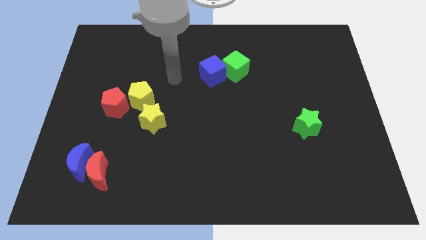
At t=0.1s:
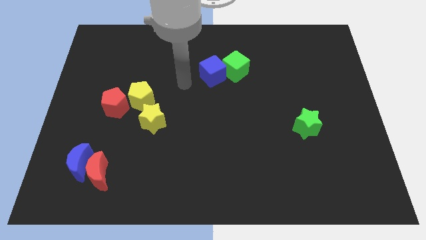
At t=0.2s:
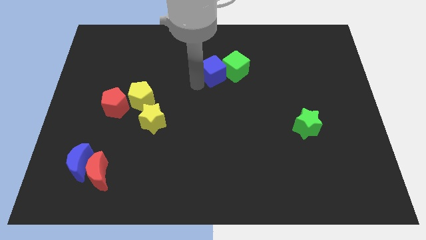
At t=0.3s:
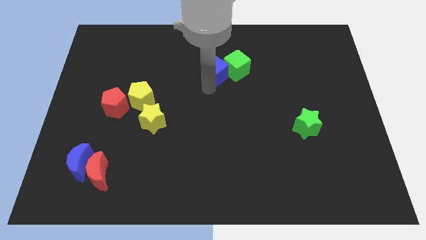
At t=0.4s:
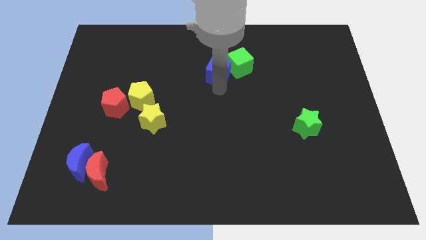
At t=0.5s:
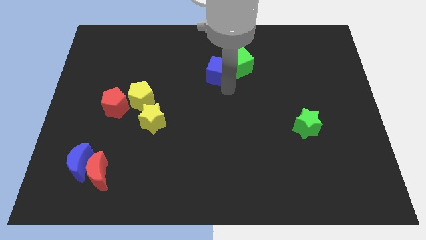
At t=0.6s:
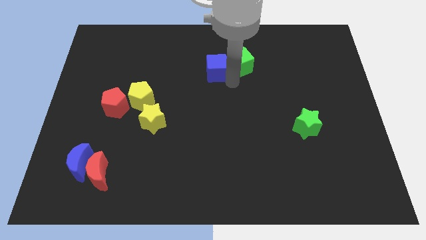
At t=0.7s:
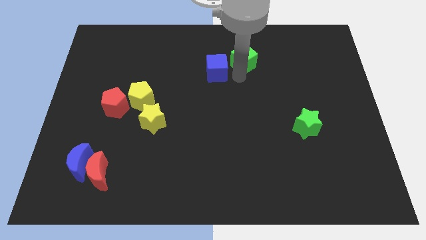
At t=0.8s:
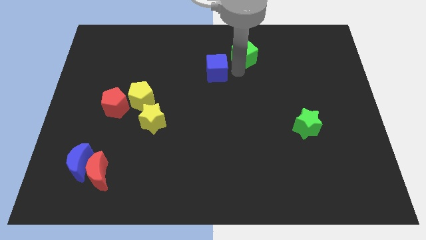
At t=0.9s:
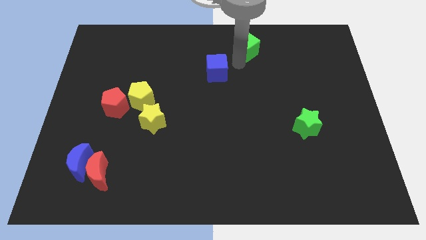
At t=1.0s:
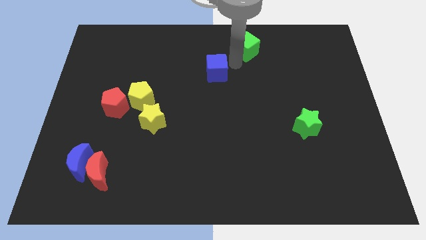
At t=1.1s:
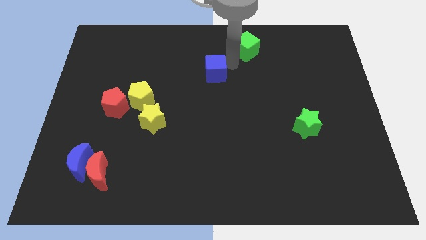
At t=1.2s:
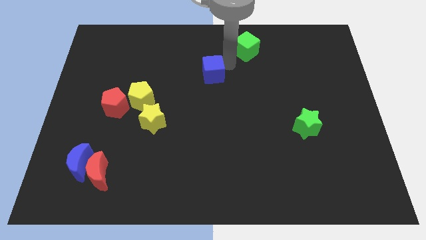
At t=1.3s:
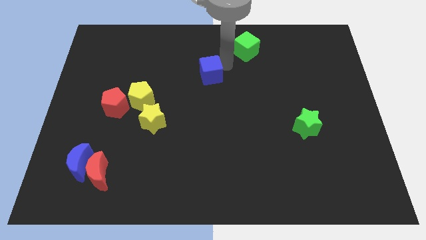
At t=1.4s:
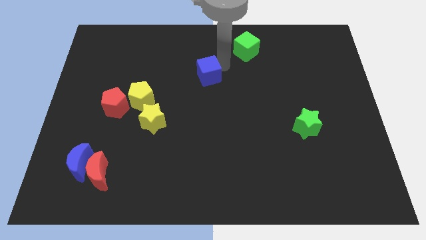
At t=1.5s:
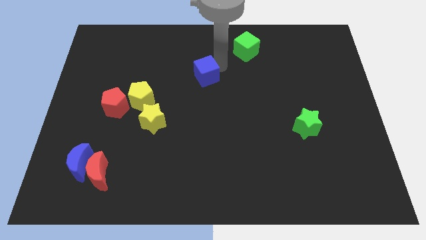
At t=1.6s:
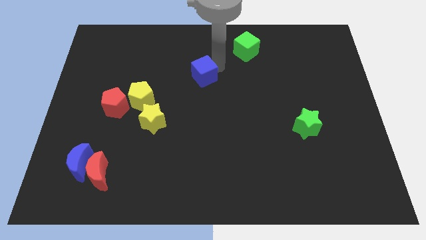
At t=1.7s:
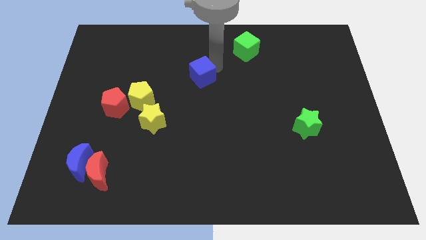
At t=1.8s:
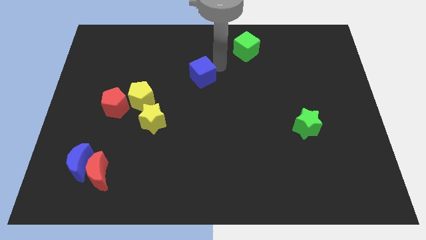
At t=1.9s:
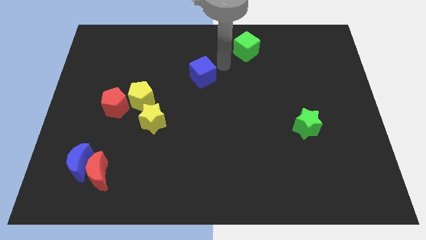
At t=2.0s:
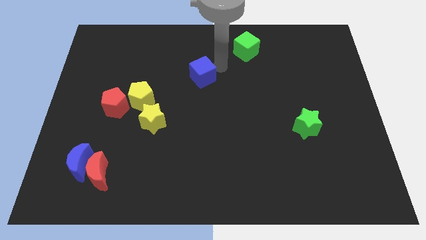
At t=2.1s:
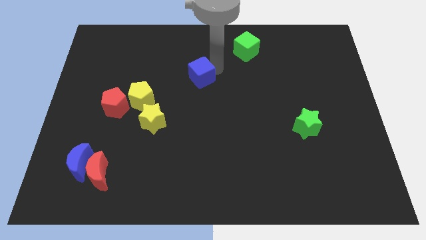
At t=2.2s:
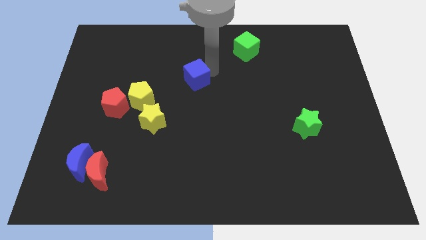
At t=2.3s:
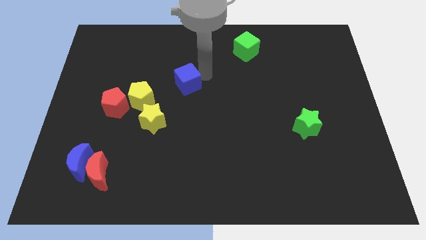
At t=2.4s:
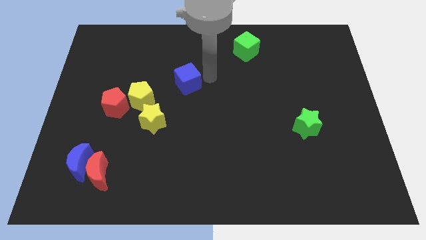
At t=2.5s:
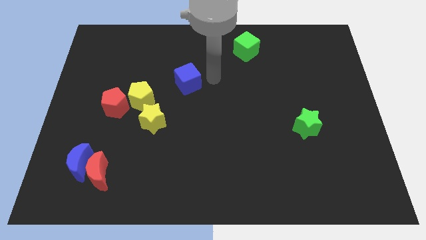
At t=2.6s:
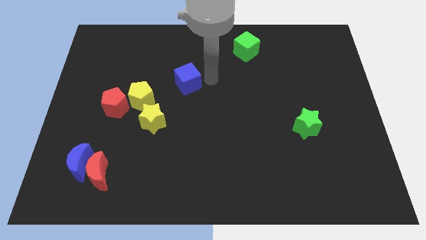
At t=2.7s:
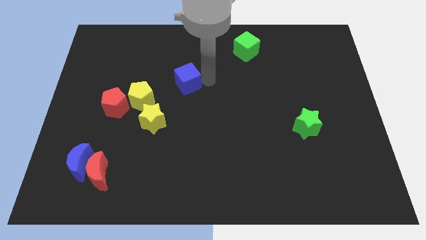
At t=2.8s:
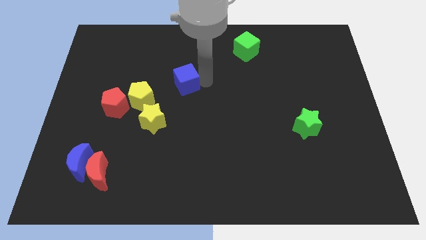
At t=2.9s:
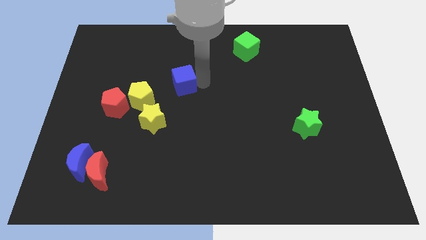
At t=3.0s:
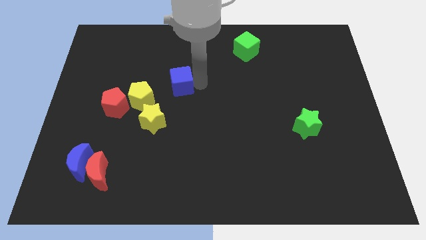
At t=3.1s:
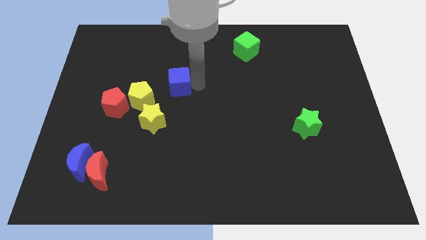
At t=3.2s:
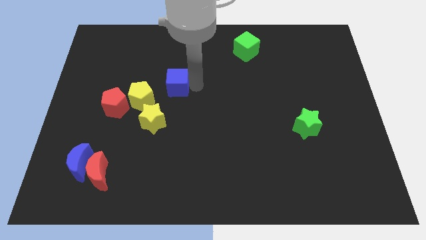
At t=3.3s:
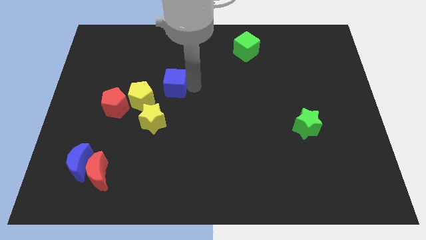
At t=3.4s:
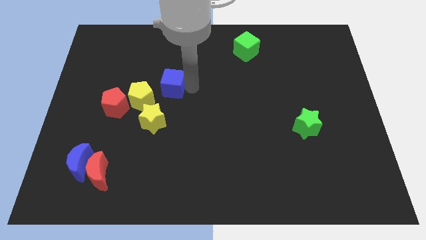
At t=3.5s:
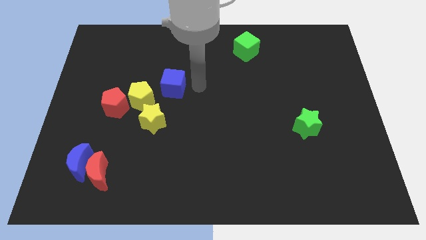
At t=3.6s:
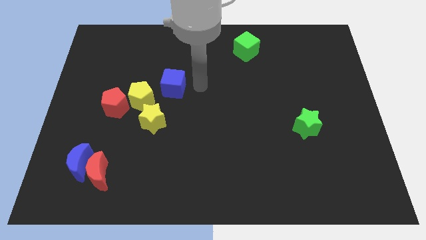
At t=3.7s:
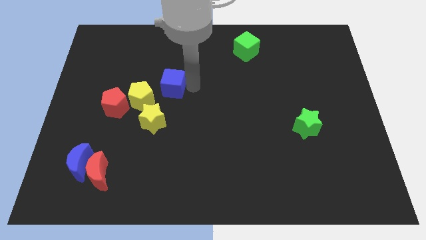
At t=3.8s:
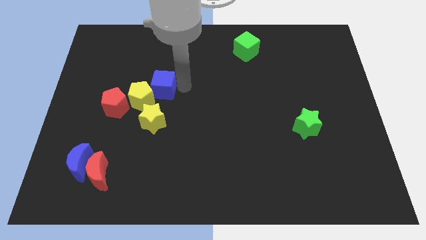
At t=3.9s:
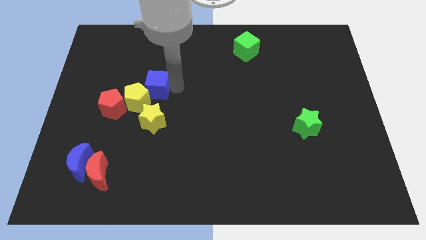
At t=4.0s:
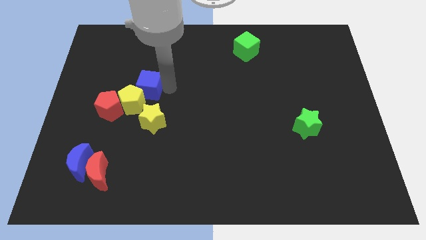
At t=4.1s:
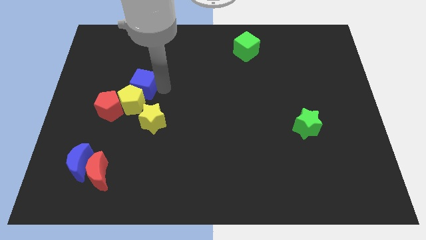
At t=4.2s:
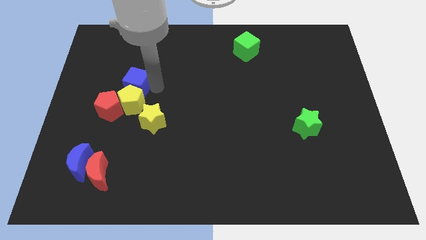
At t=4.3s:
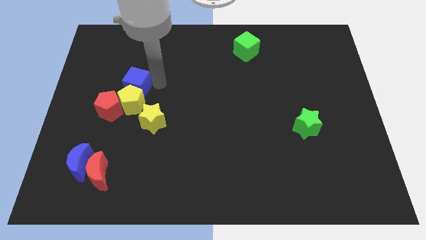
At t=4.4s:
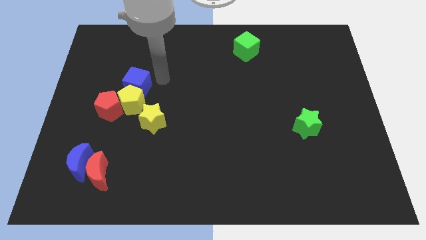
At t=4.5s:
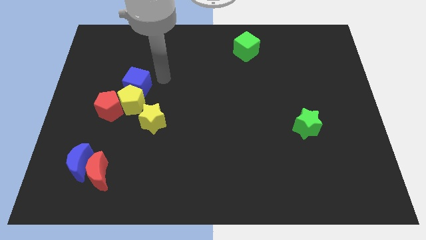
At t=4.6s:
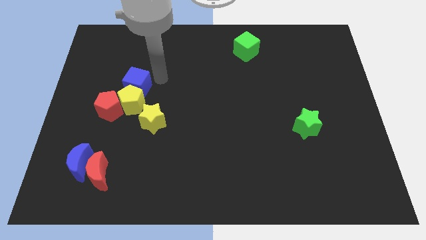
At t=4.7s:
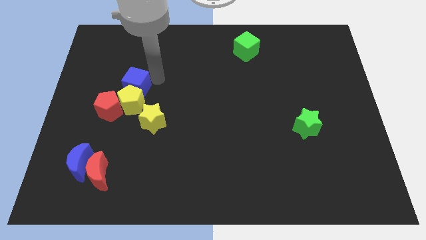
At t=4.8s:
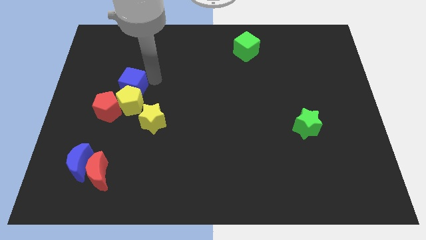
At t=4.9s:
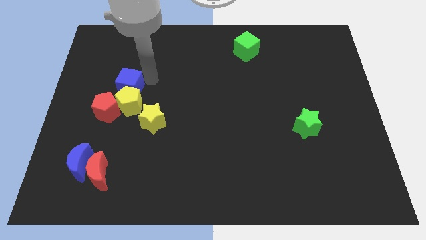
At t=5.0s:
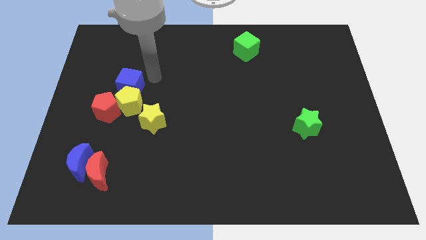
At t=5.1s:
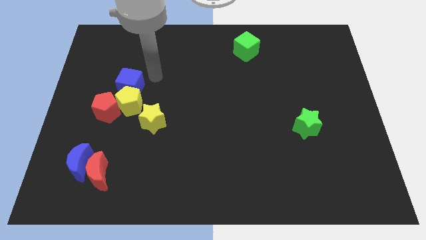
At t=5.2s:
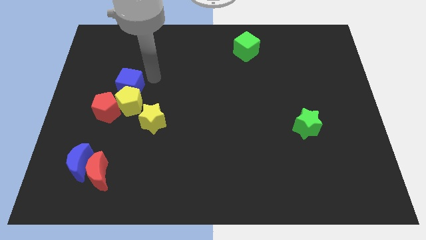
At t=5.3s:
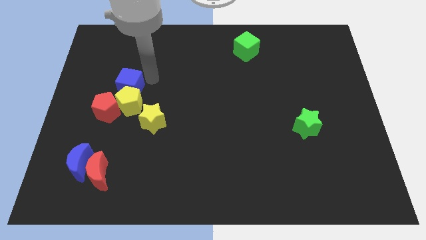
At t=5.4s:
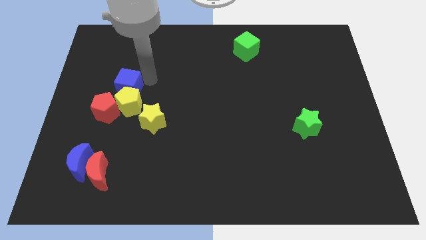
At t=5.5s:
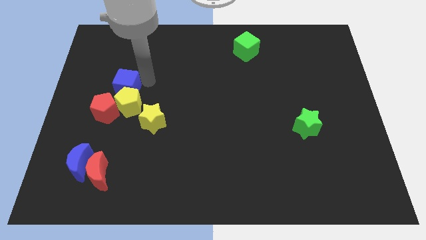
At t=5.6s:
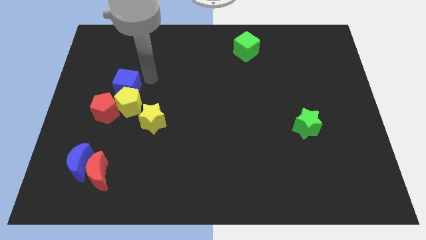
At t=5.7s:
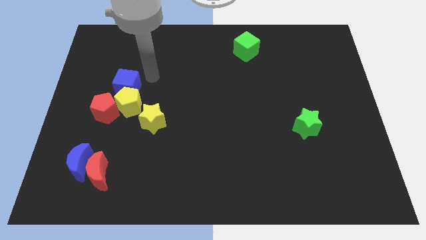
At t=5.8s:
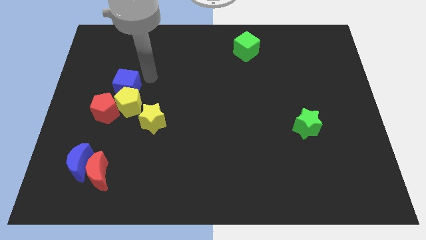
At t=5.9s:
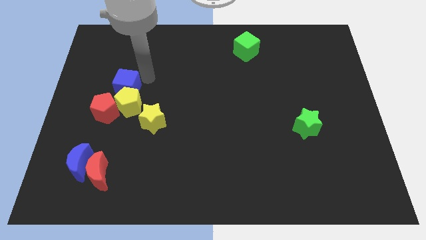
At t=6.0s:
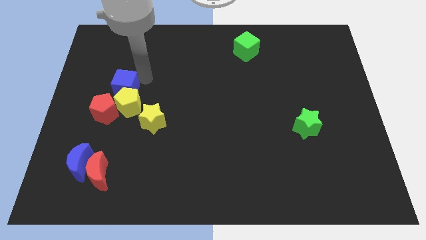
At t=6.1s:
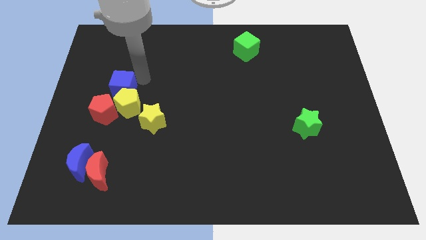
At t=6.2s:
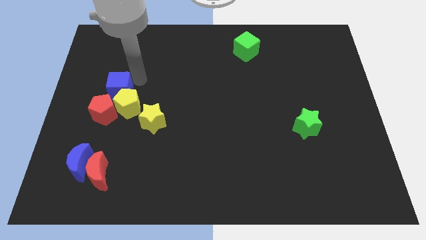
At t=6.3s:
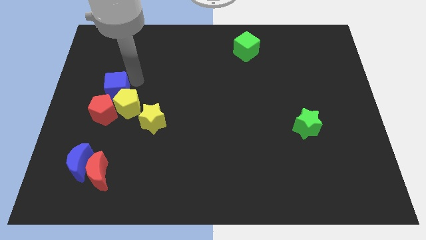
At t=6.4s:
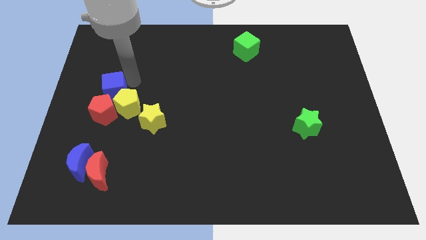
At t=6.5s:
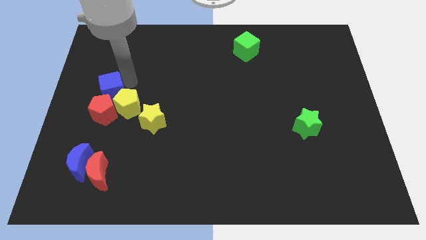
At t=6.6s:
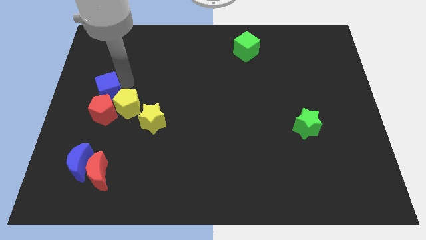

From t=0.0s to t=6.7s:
move the blue cube to the left side of the board
